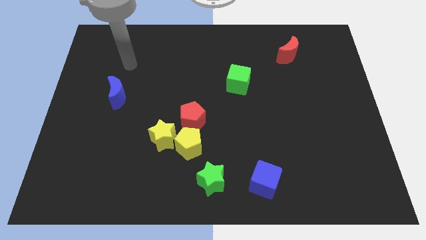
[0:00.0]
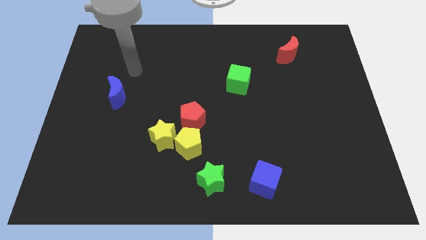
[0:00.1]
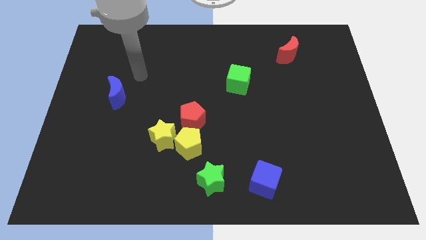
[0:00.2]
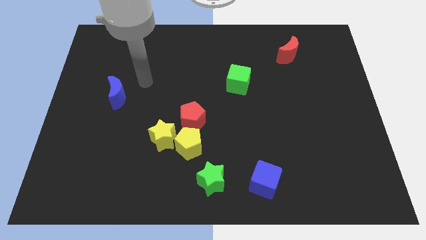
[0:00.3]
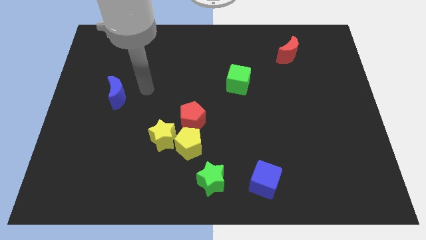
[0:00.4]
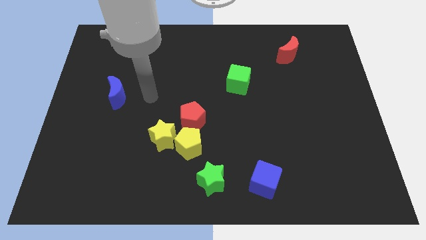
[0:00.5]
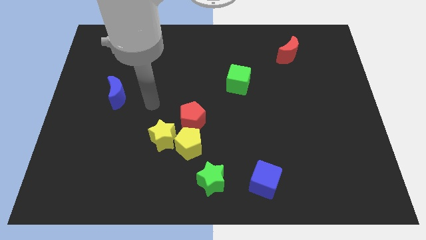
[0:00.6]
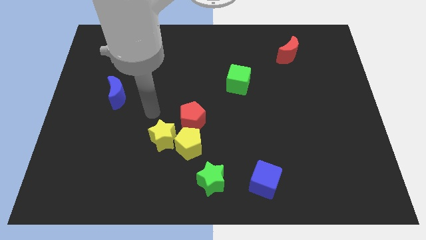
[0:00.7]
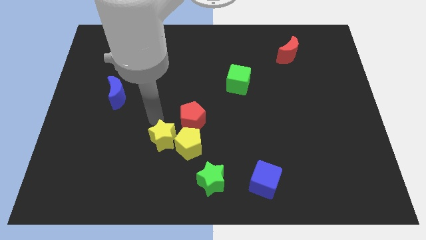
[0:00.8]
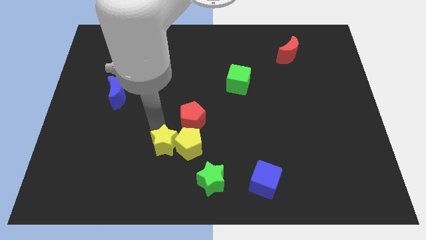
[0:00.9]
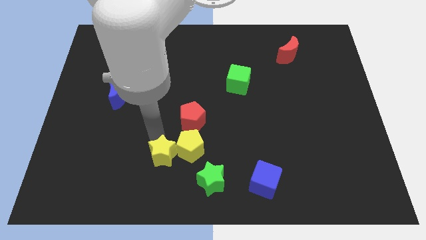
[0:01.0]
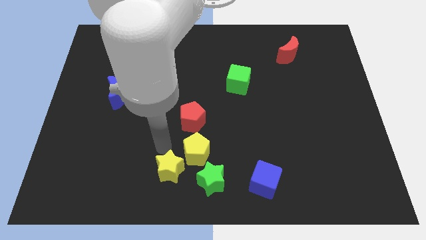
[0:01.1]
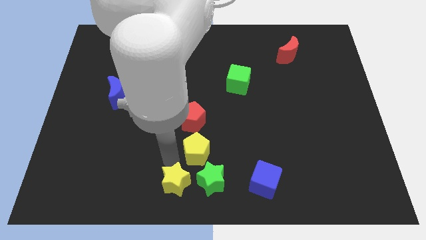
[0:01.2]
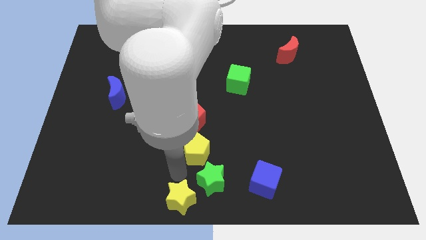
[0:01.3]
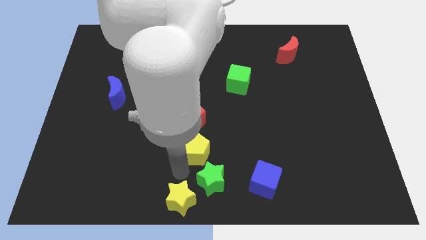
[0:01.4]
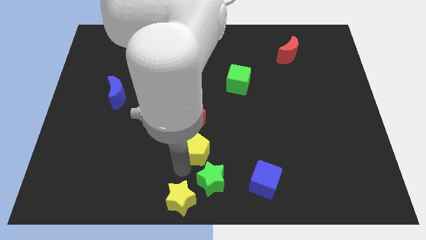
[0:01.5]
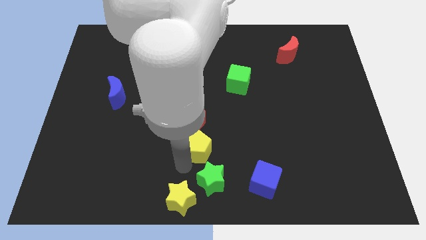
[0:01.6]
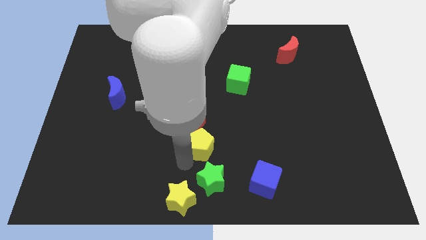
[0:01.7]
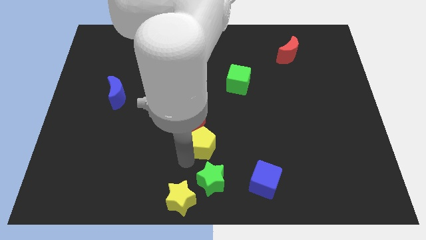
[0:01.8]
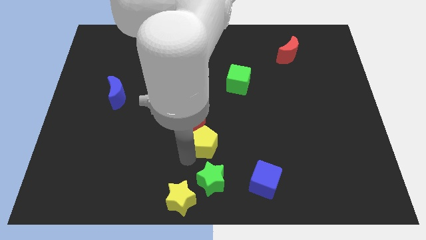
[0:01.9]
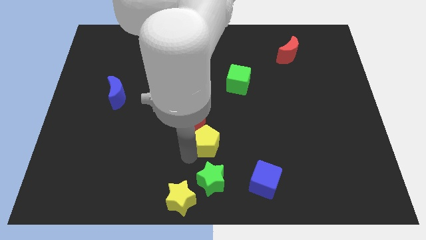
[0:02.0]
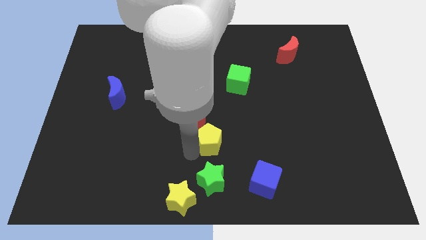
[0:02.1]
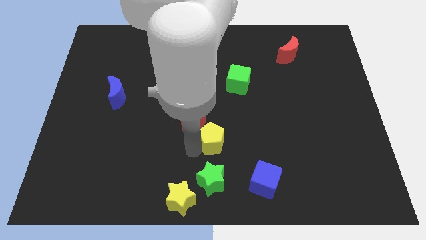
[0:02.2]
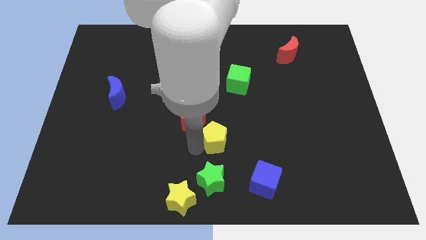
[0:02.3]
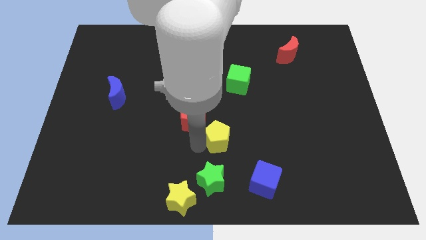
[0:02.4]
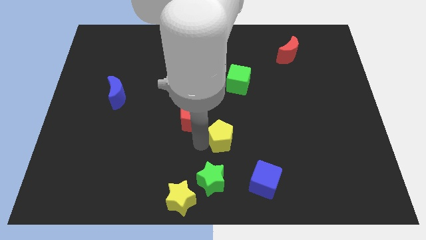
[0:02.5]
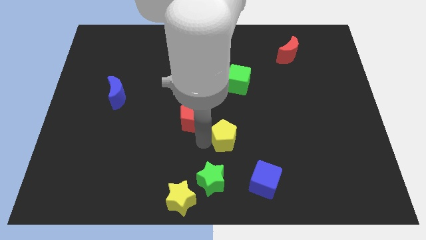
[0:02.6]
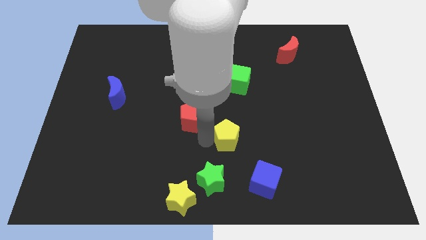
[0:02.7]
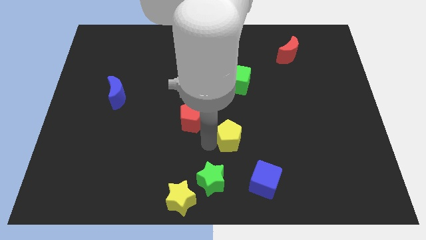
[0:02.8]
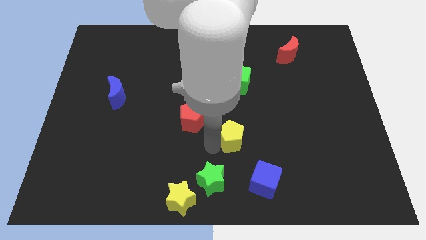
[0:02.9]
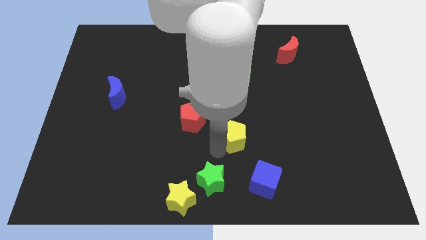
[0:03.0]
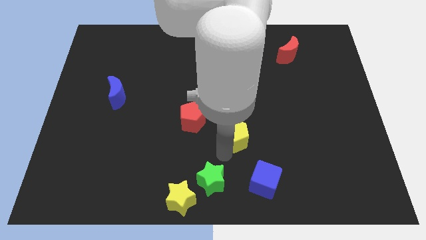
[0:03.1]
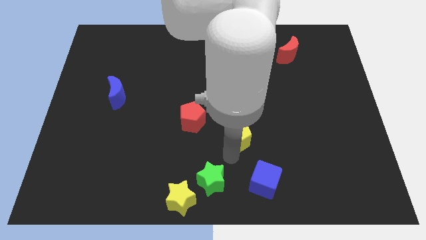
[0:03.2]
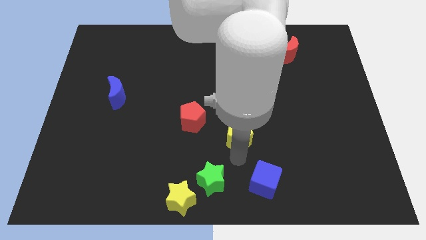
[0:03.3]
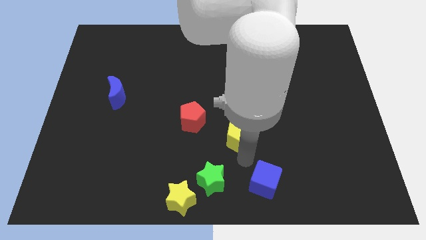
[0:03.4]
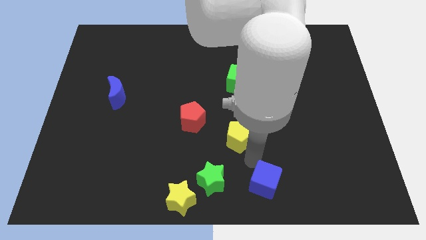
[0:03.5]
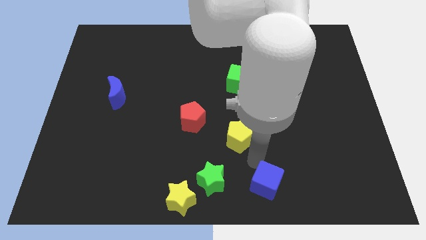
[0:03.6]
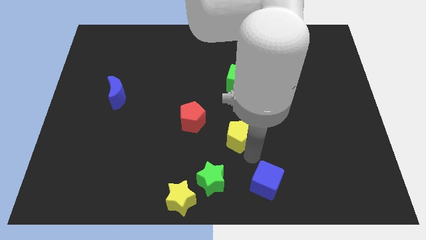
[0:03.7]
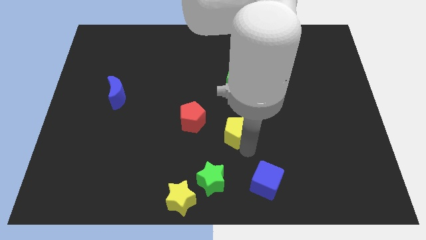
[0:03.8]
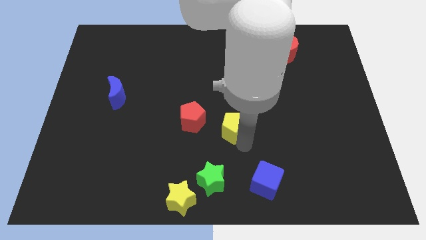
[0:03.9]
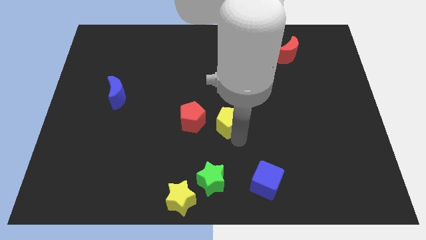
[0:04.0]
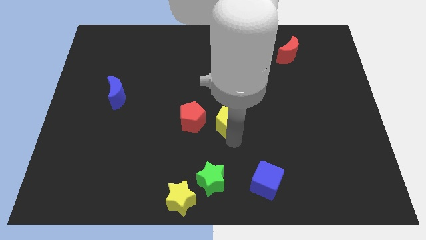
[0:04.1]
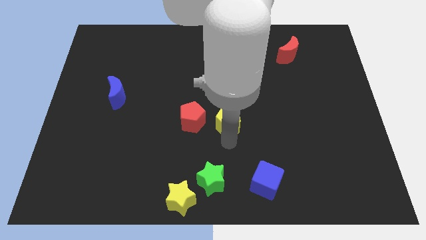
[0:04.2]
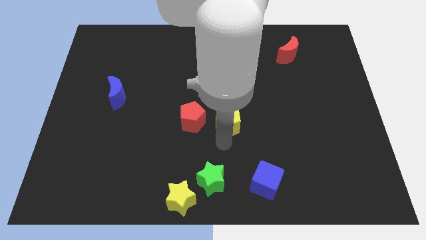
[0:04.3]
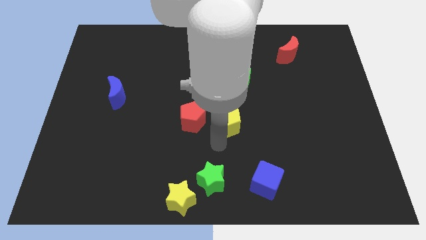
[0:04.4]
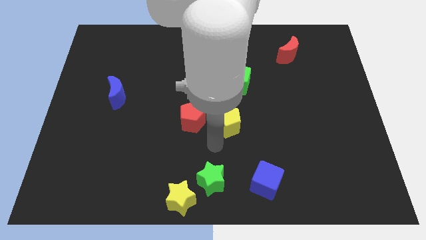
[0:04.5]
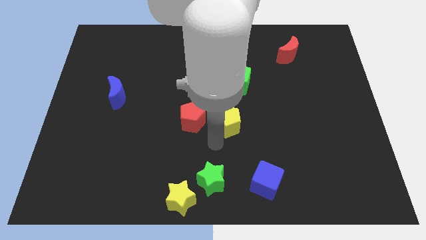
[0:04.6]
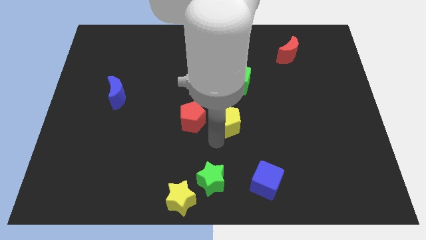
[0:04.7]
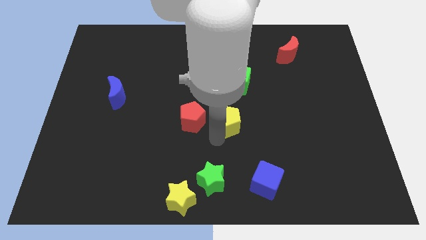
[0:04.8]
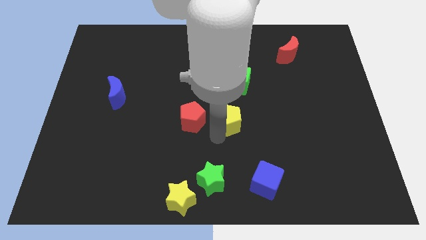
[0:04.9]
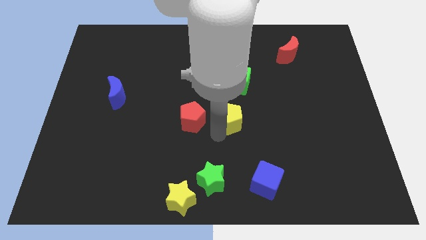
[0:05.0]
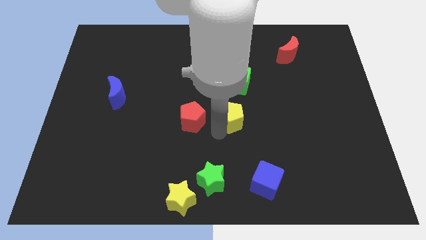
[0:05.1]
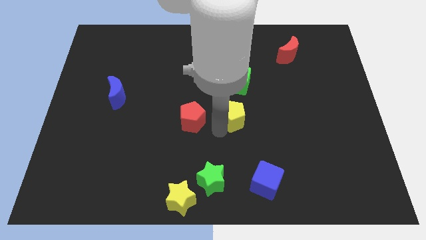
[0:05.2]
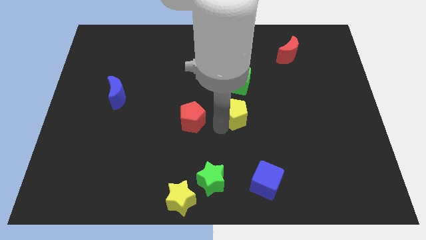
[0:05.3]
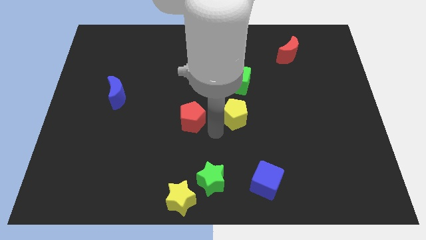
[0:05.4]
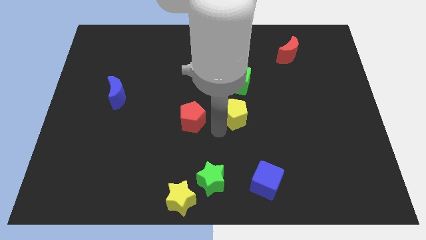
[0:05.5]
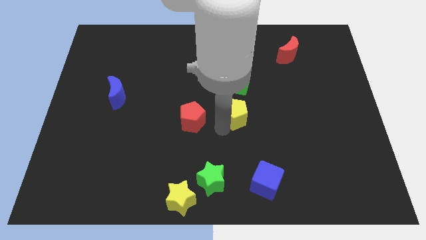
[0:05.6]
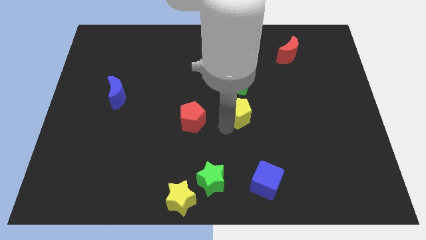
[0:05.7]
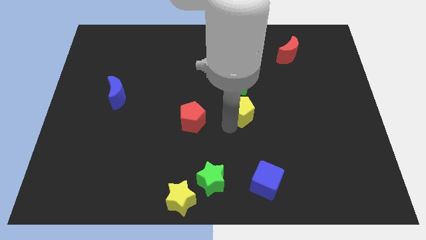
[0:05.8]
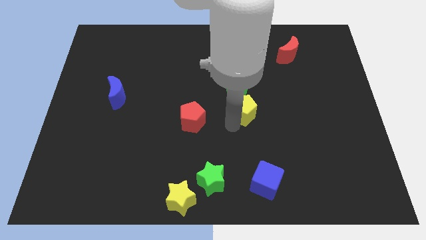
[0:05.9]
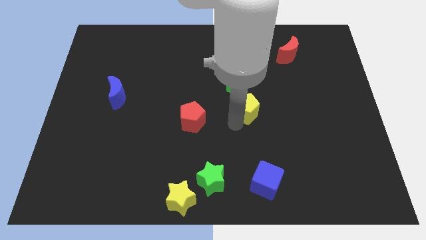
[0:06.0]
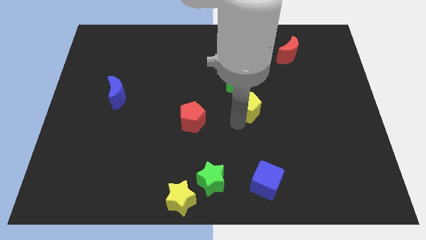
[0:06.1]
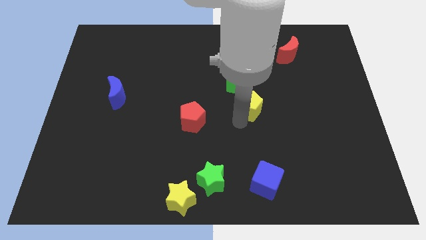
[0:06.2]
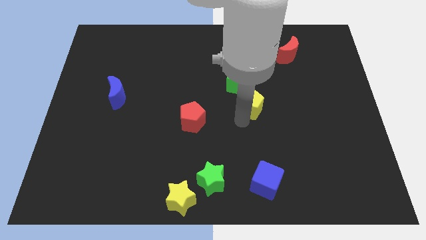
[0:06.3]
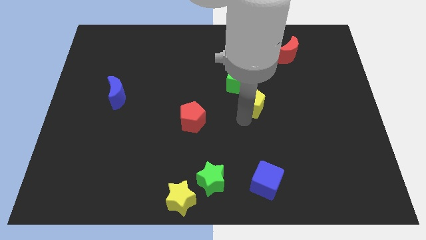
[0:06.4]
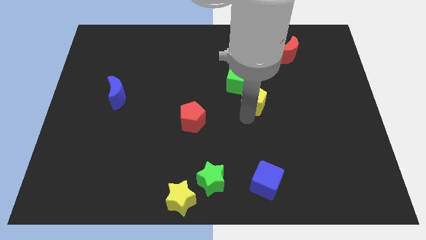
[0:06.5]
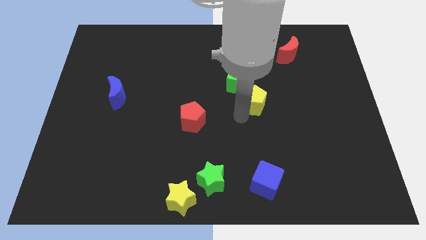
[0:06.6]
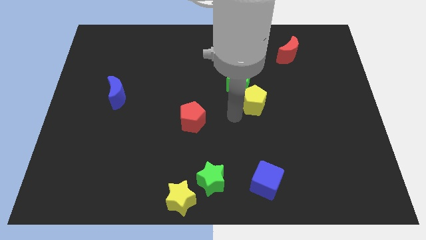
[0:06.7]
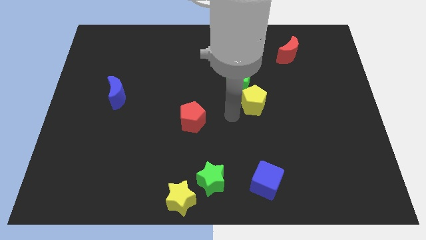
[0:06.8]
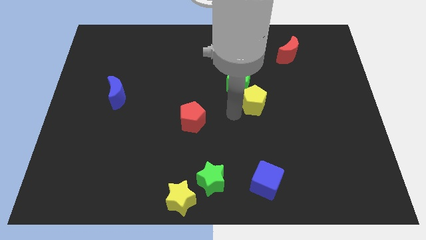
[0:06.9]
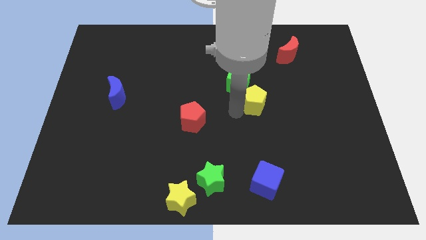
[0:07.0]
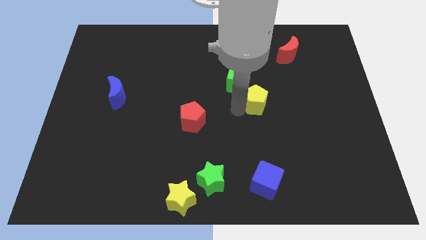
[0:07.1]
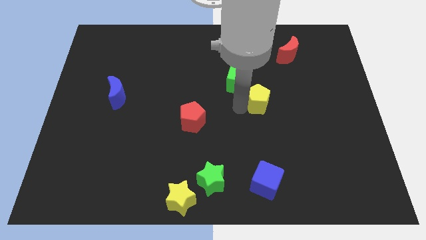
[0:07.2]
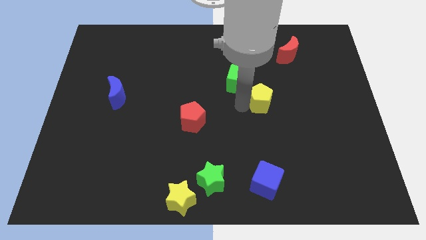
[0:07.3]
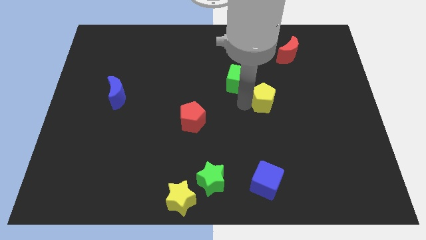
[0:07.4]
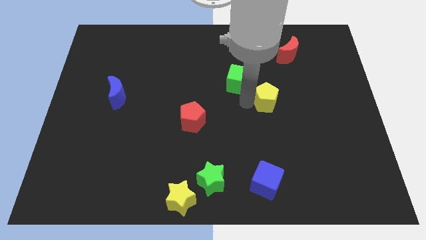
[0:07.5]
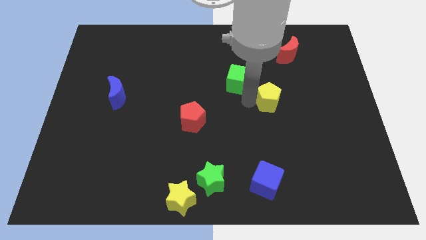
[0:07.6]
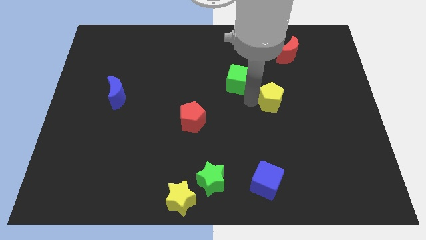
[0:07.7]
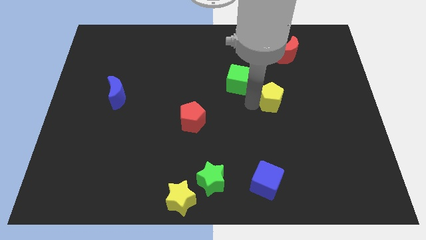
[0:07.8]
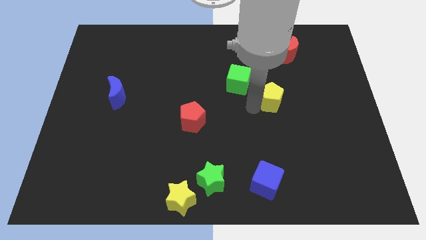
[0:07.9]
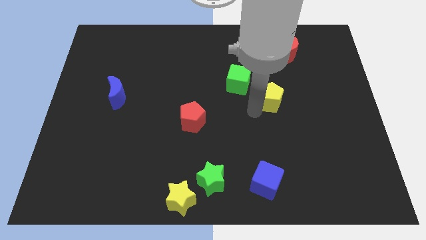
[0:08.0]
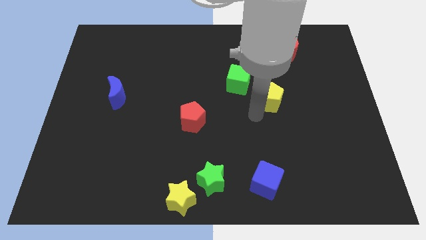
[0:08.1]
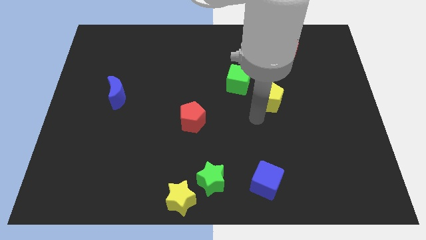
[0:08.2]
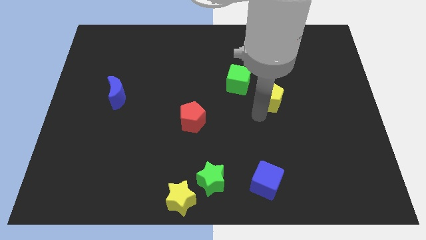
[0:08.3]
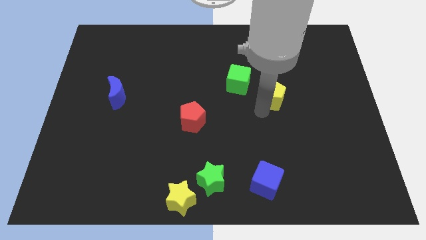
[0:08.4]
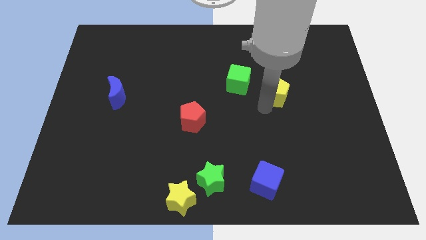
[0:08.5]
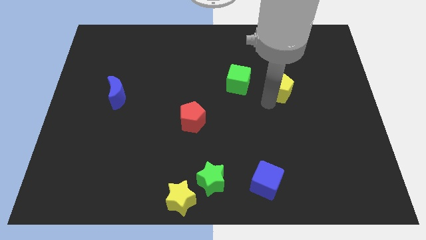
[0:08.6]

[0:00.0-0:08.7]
move the yellow pentagon to the bottom of the red moon
